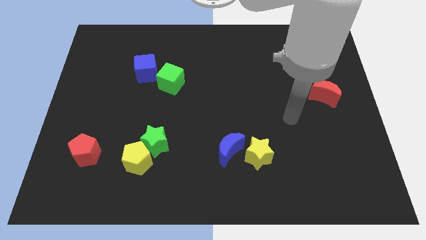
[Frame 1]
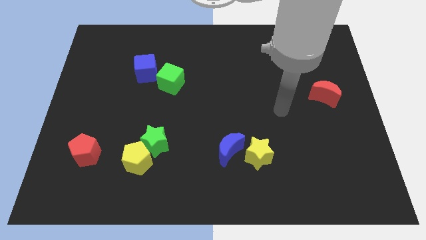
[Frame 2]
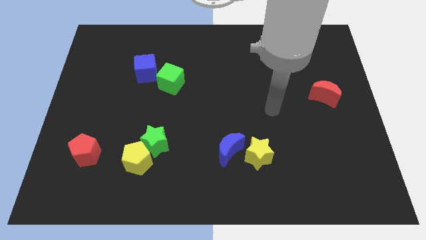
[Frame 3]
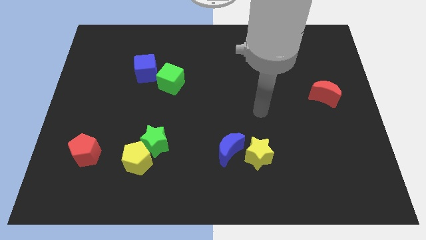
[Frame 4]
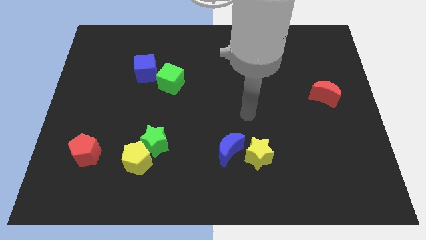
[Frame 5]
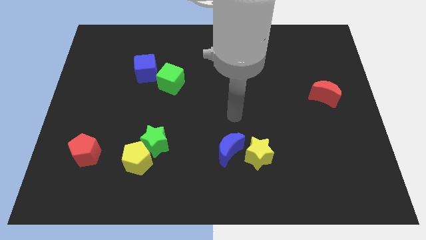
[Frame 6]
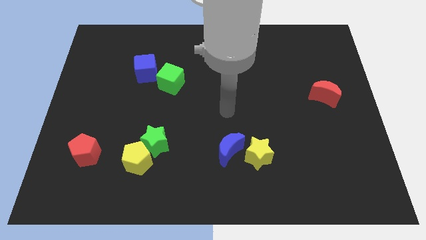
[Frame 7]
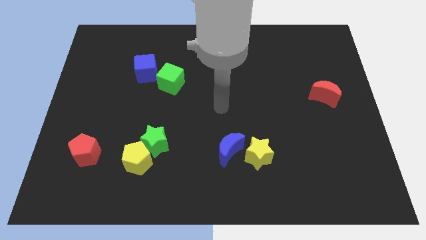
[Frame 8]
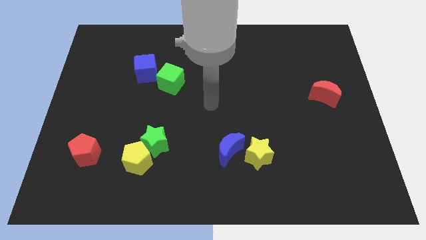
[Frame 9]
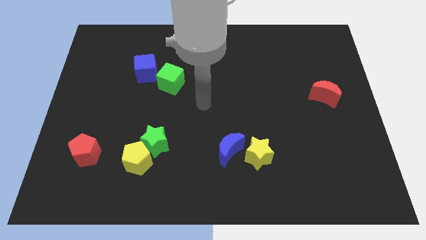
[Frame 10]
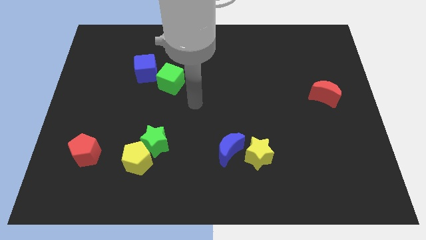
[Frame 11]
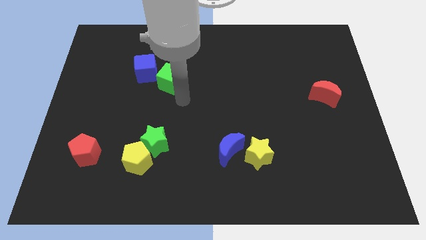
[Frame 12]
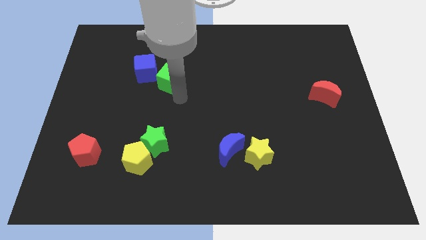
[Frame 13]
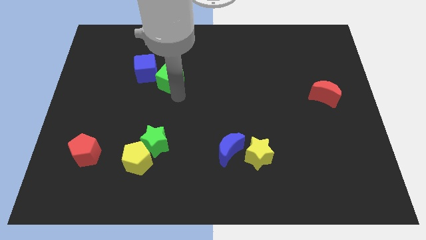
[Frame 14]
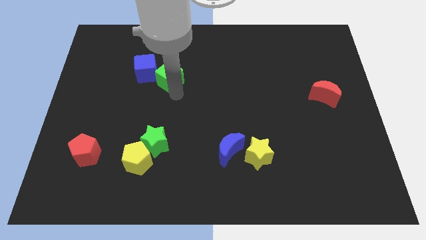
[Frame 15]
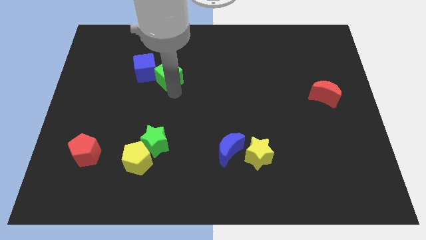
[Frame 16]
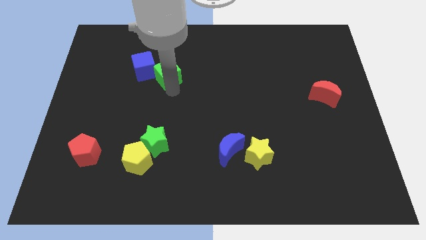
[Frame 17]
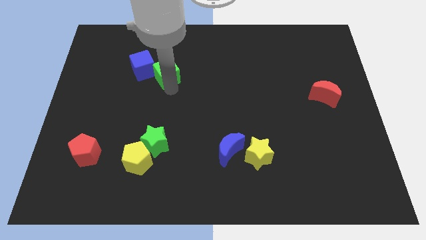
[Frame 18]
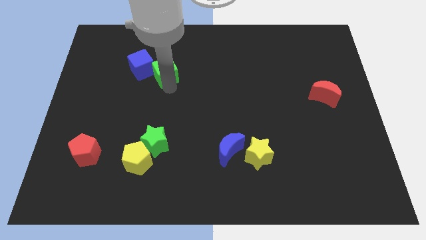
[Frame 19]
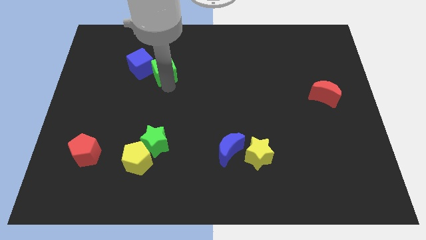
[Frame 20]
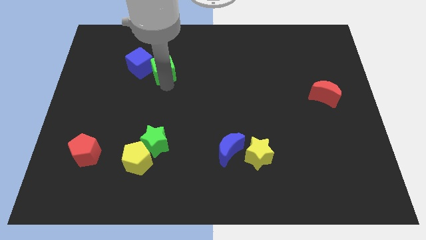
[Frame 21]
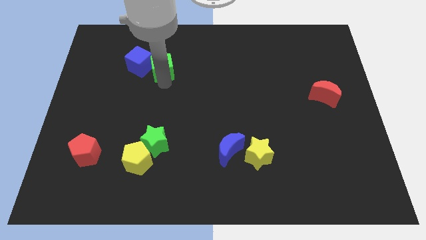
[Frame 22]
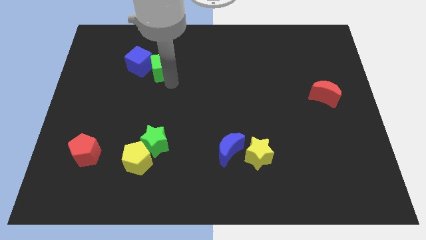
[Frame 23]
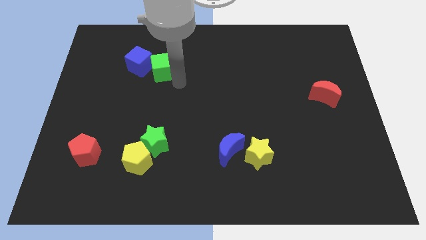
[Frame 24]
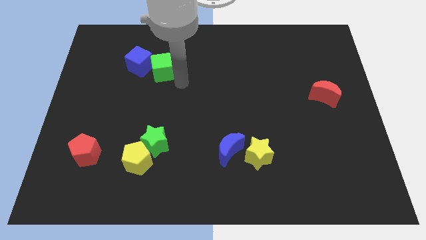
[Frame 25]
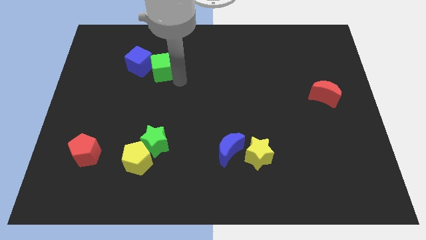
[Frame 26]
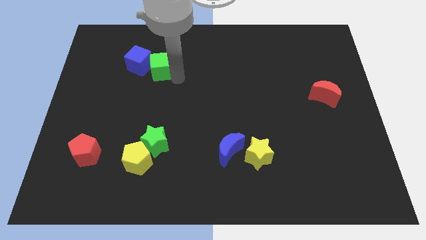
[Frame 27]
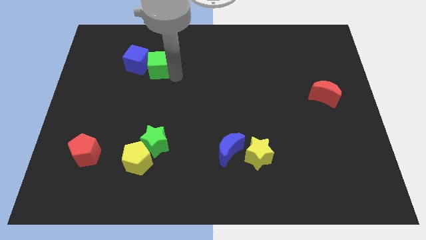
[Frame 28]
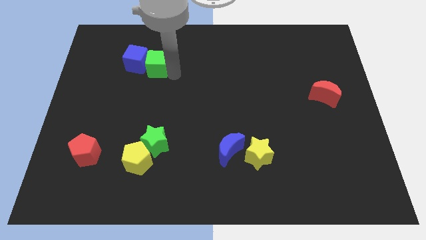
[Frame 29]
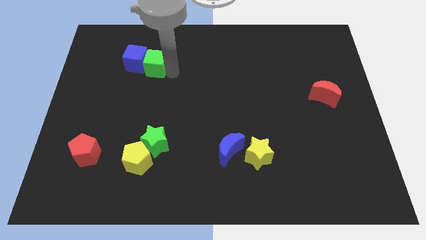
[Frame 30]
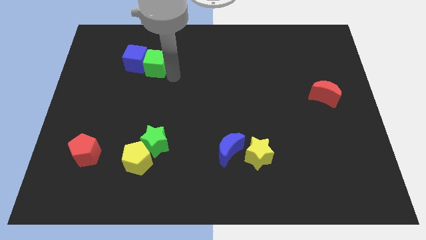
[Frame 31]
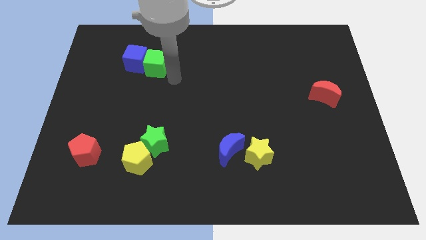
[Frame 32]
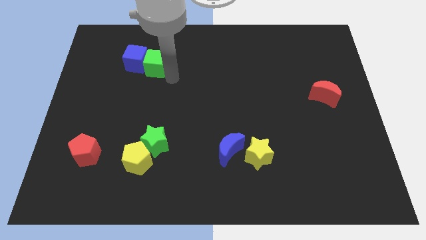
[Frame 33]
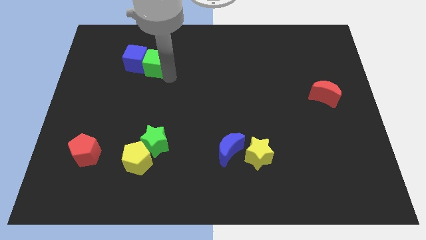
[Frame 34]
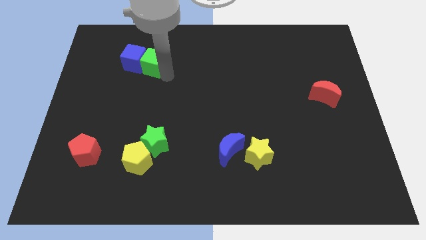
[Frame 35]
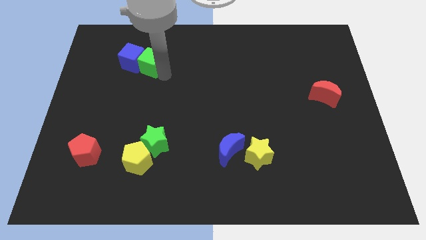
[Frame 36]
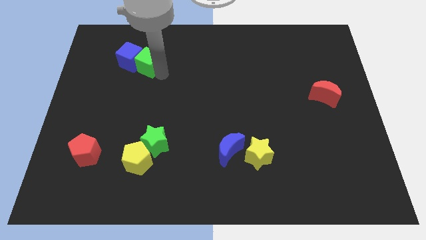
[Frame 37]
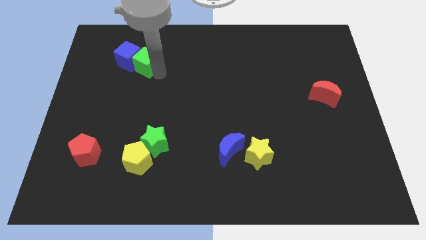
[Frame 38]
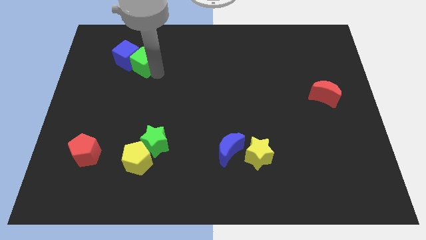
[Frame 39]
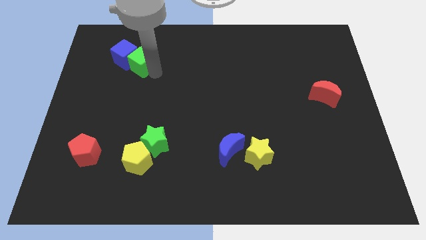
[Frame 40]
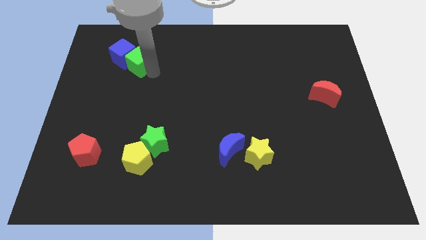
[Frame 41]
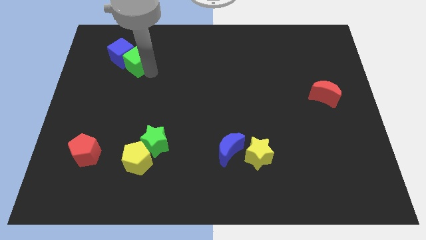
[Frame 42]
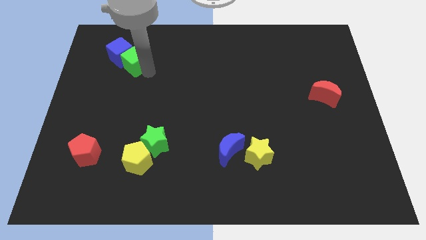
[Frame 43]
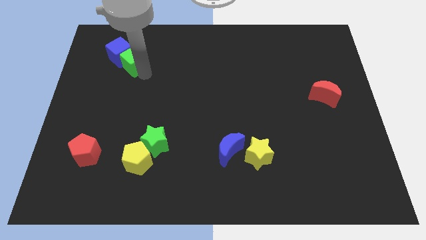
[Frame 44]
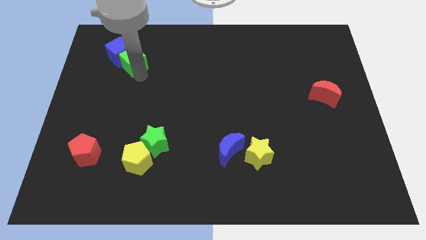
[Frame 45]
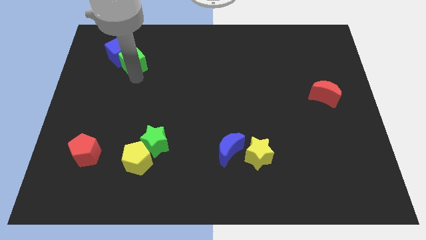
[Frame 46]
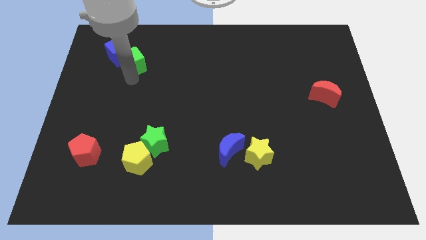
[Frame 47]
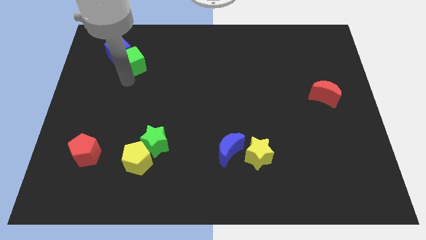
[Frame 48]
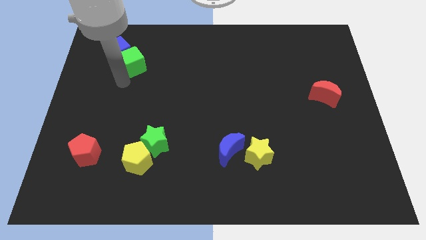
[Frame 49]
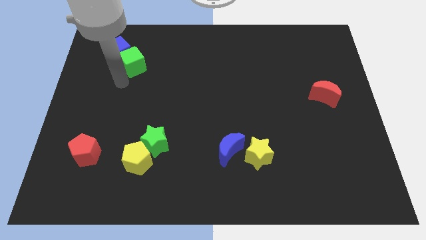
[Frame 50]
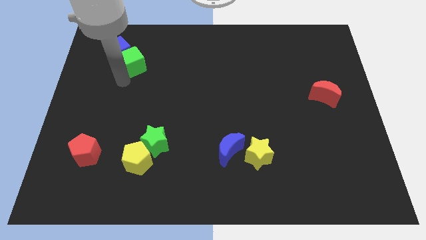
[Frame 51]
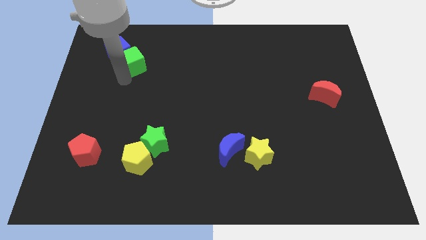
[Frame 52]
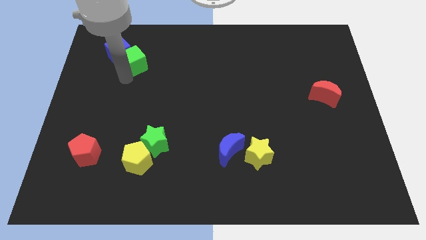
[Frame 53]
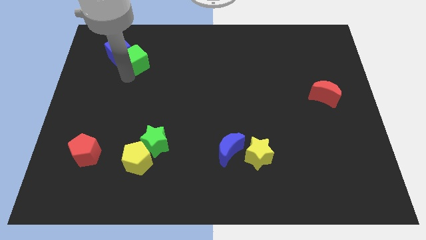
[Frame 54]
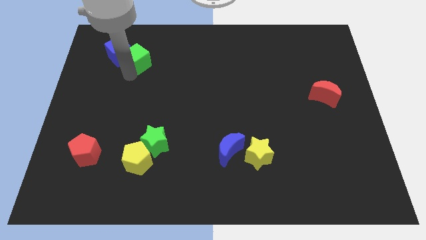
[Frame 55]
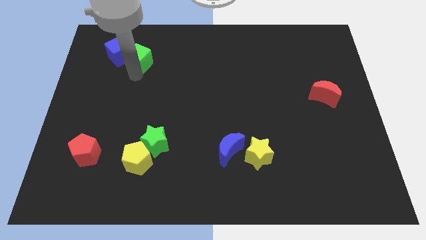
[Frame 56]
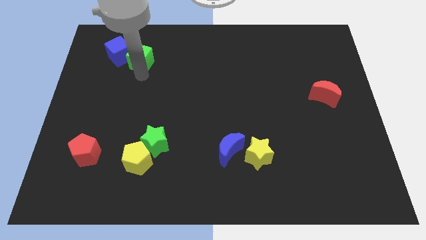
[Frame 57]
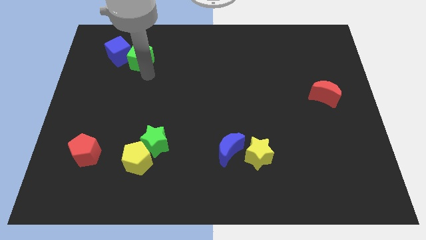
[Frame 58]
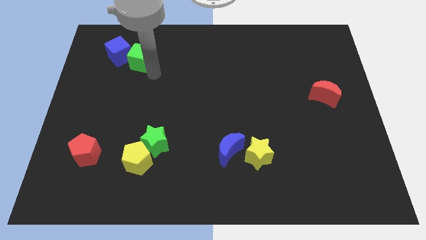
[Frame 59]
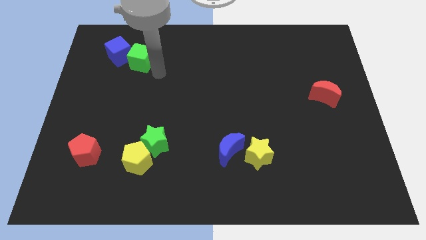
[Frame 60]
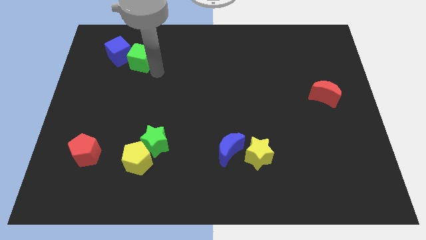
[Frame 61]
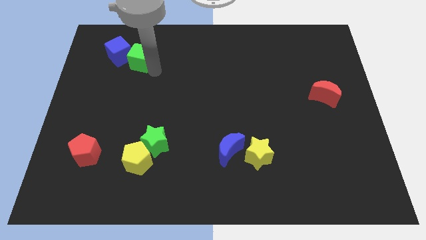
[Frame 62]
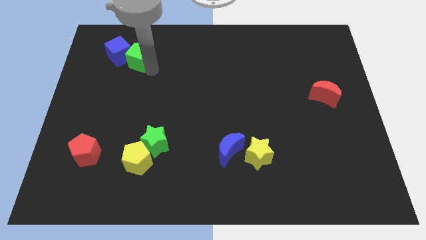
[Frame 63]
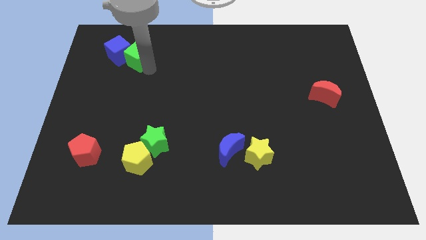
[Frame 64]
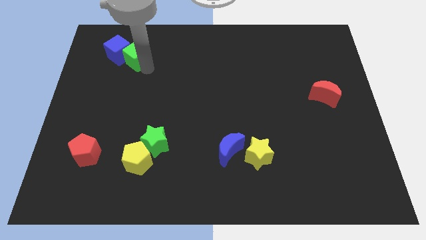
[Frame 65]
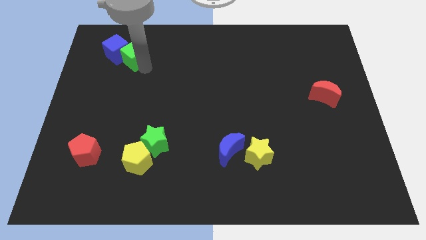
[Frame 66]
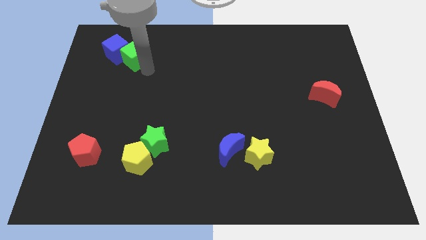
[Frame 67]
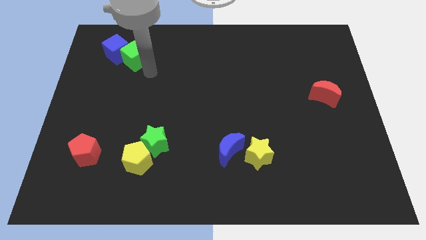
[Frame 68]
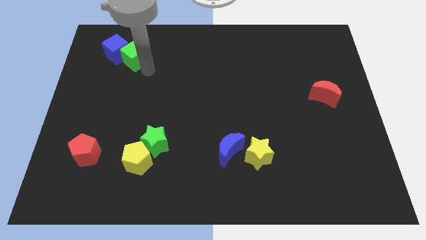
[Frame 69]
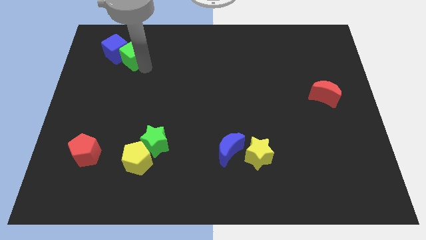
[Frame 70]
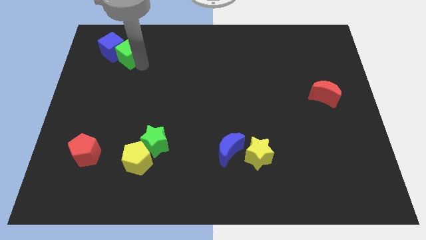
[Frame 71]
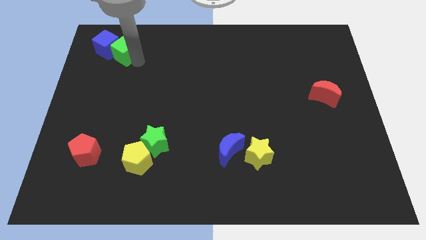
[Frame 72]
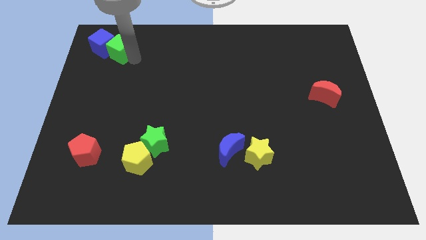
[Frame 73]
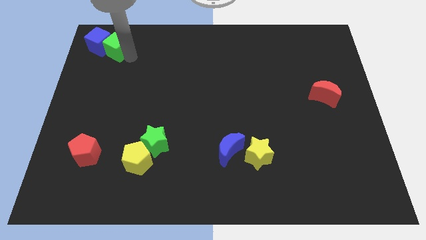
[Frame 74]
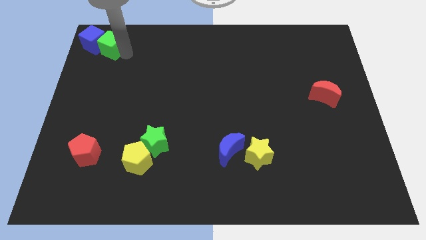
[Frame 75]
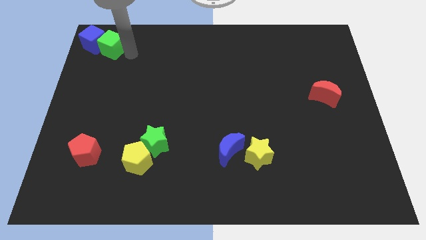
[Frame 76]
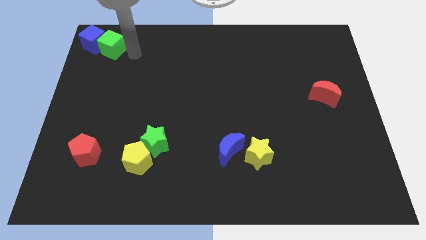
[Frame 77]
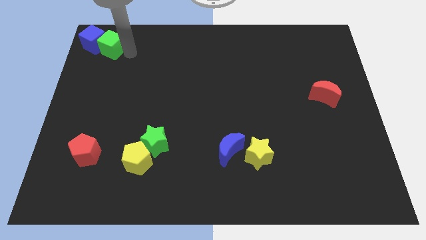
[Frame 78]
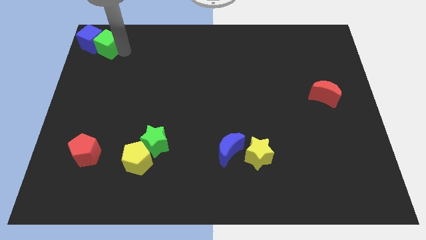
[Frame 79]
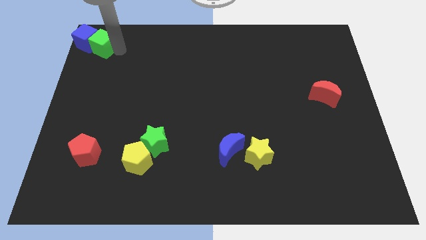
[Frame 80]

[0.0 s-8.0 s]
put the green cube to the top left of the board
